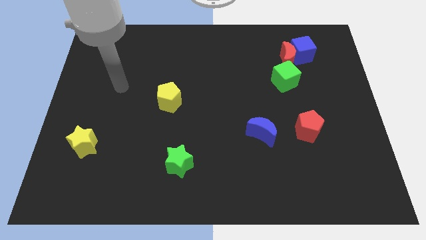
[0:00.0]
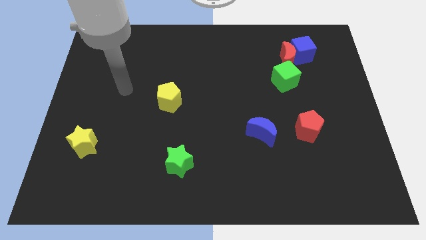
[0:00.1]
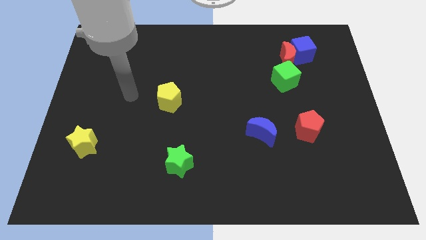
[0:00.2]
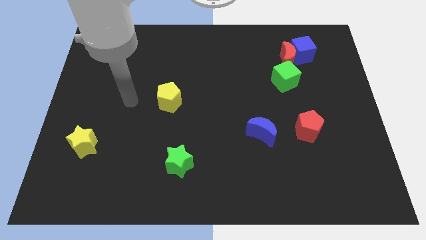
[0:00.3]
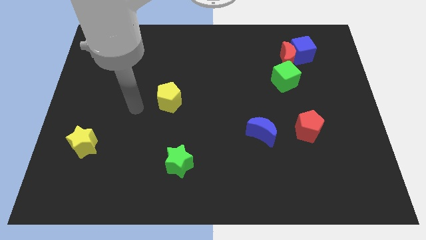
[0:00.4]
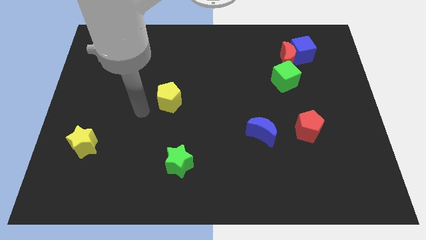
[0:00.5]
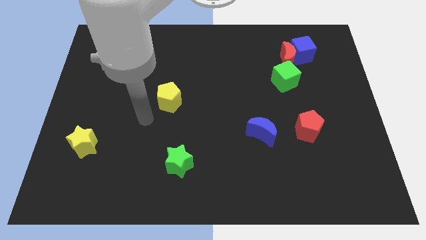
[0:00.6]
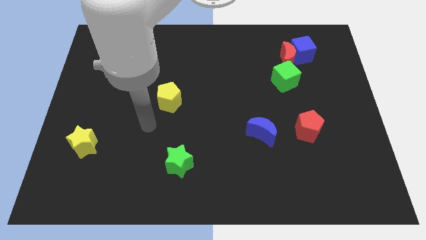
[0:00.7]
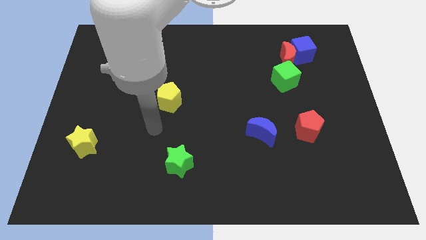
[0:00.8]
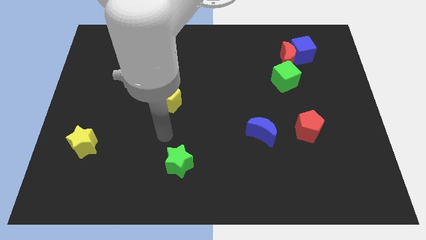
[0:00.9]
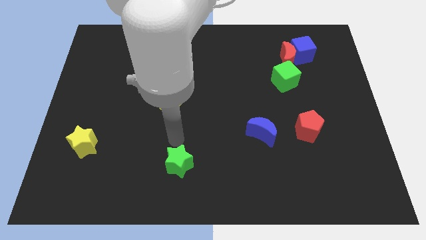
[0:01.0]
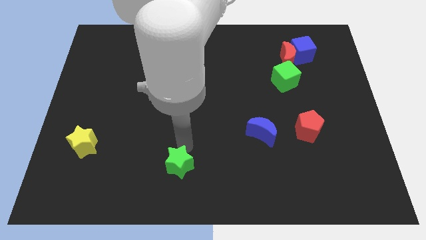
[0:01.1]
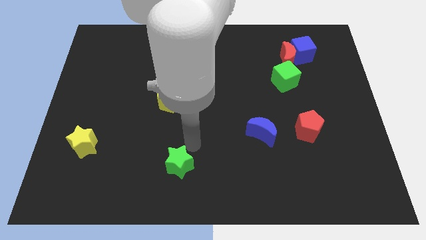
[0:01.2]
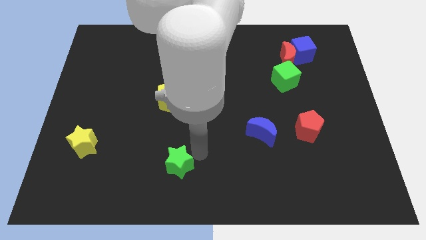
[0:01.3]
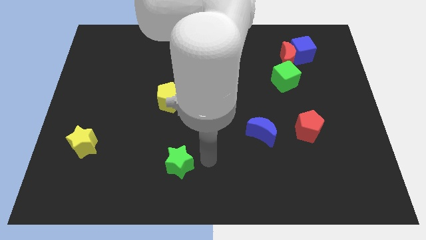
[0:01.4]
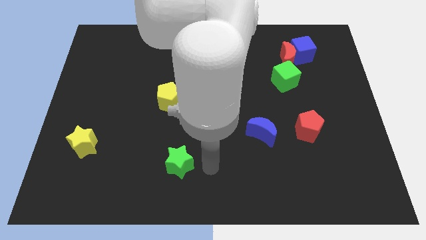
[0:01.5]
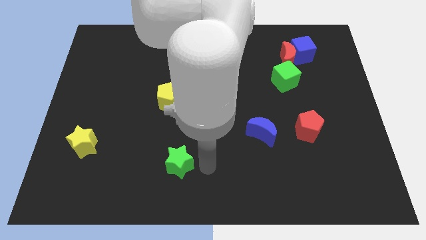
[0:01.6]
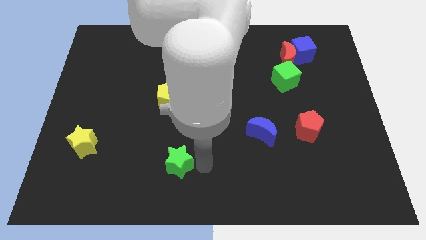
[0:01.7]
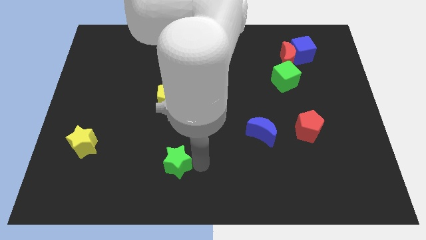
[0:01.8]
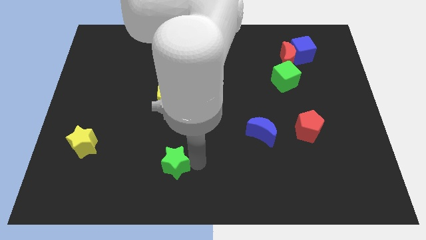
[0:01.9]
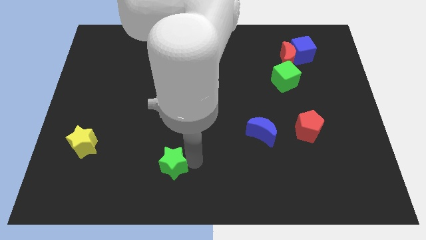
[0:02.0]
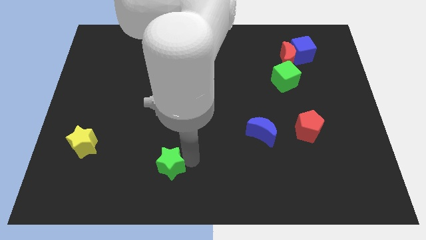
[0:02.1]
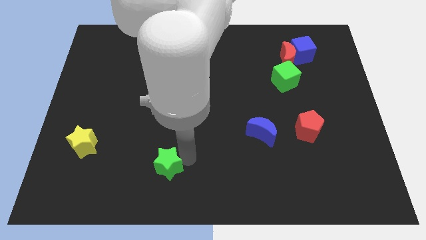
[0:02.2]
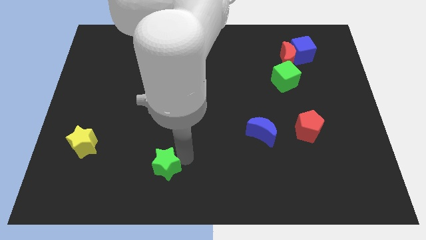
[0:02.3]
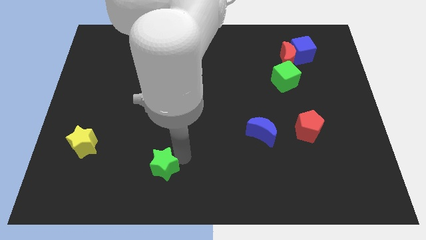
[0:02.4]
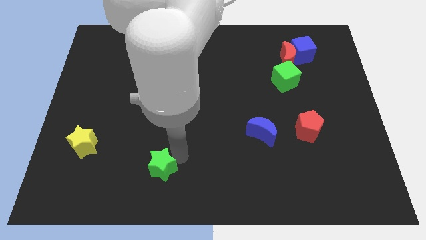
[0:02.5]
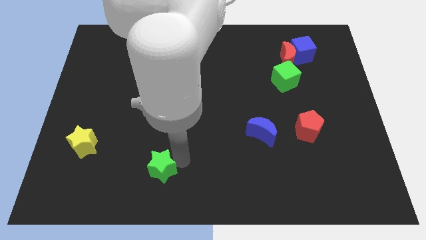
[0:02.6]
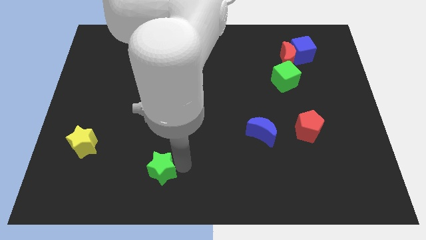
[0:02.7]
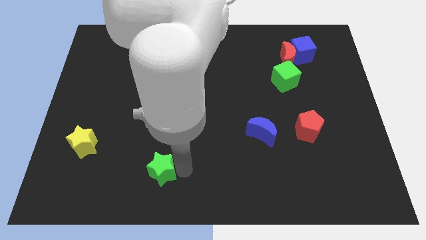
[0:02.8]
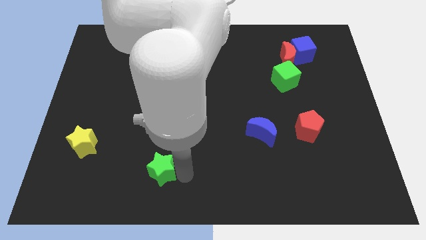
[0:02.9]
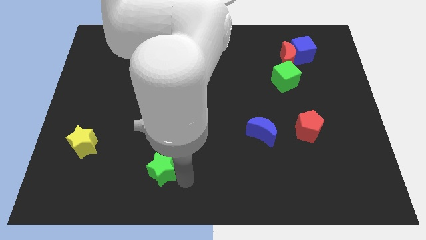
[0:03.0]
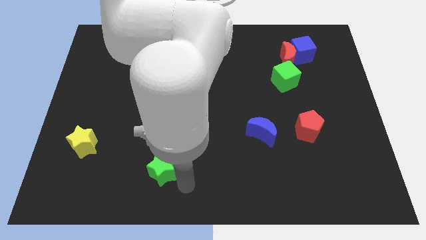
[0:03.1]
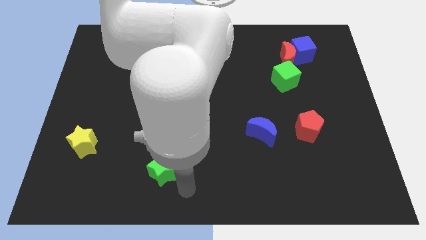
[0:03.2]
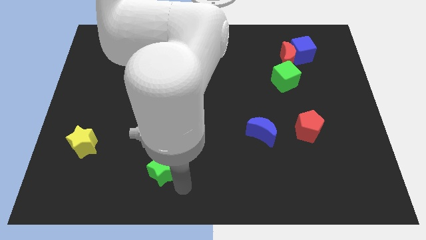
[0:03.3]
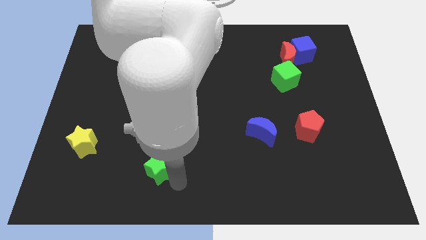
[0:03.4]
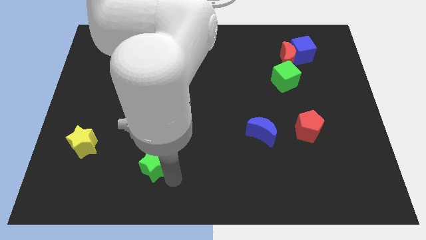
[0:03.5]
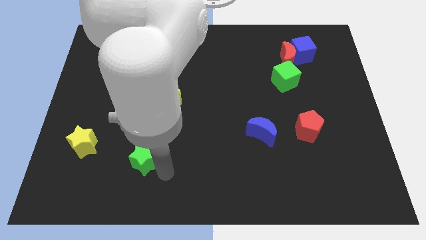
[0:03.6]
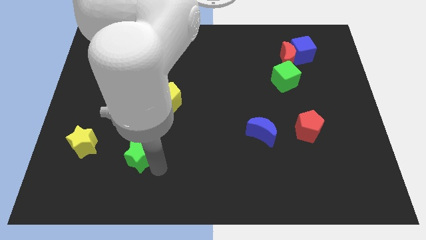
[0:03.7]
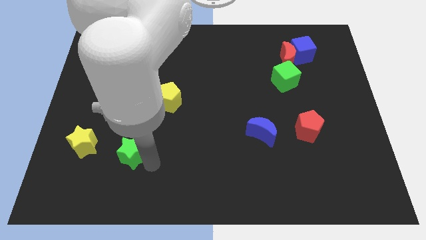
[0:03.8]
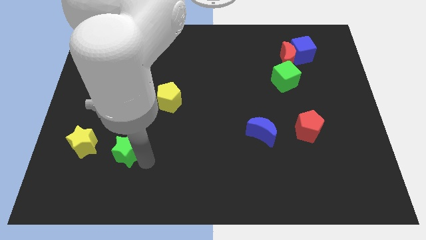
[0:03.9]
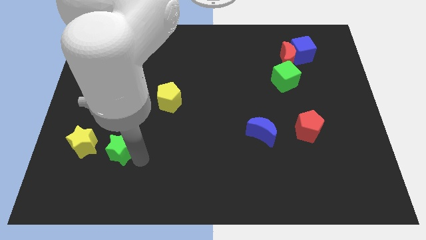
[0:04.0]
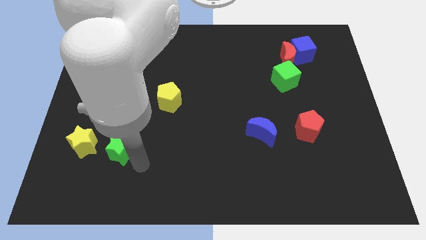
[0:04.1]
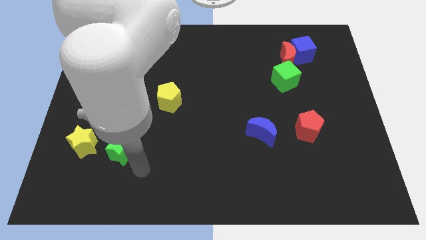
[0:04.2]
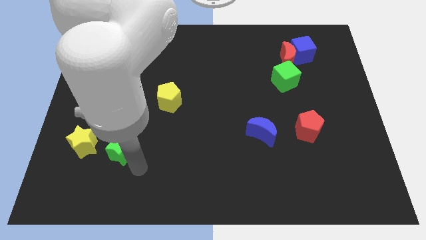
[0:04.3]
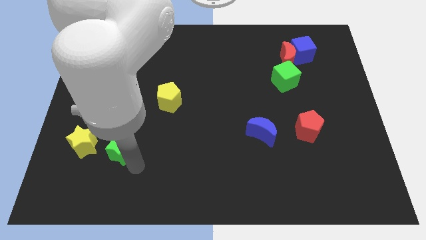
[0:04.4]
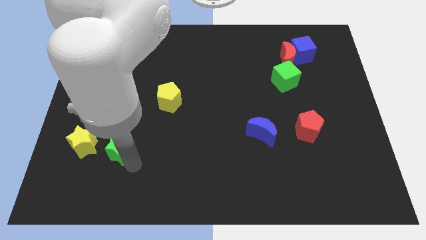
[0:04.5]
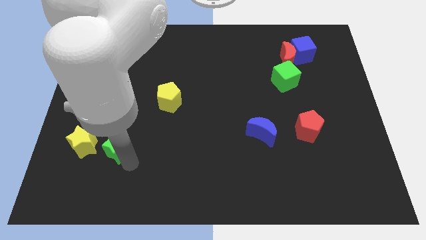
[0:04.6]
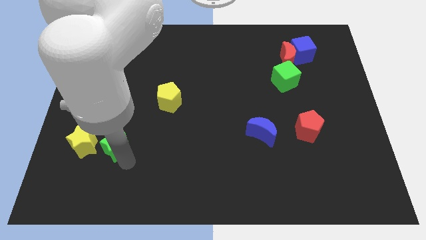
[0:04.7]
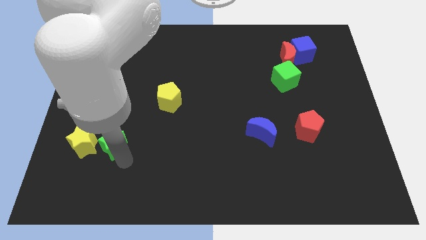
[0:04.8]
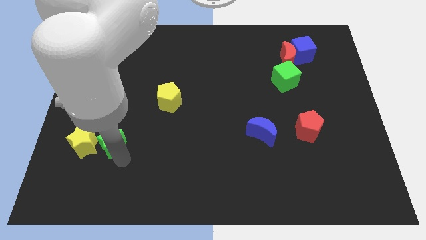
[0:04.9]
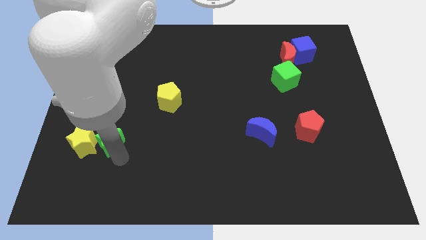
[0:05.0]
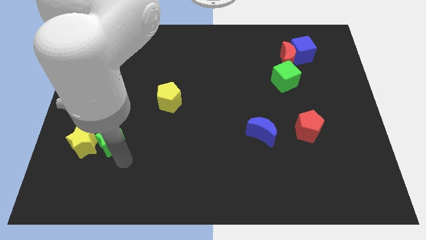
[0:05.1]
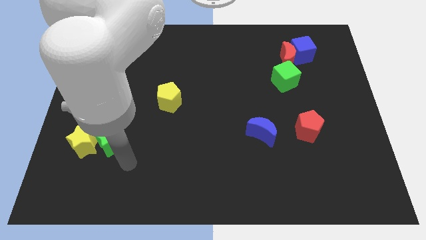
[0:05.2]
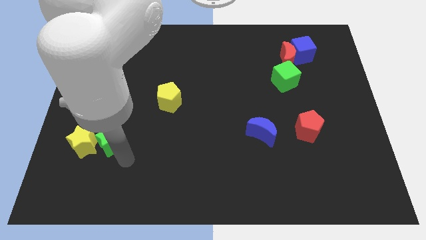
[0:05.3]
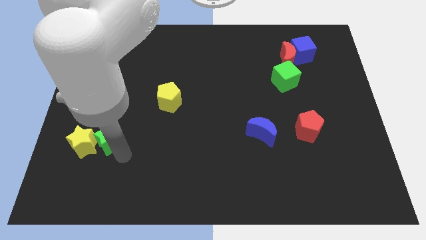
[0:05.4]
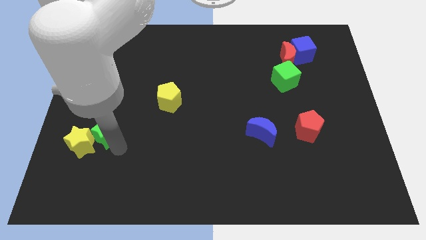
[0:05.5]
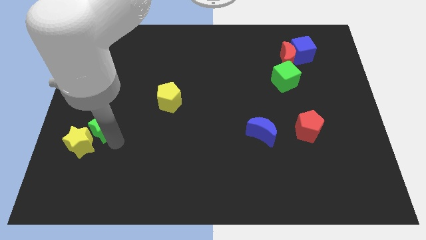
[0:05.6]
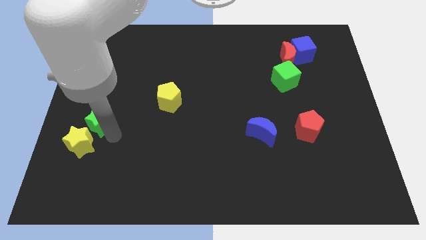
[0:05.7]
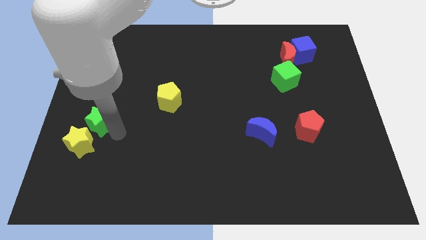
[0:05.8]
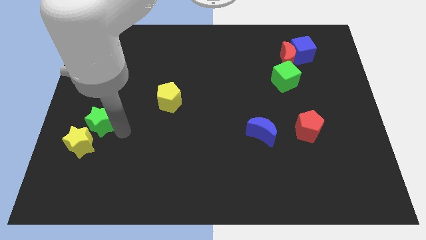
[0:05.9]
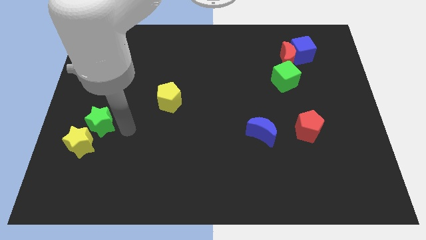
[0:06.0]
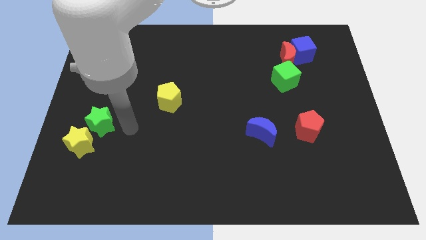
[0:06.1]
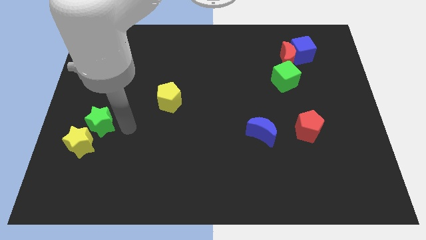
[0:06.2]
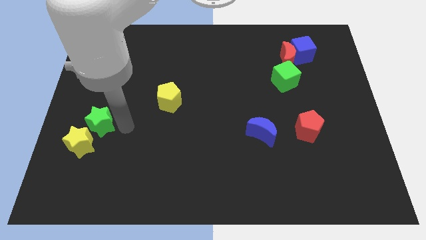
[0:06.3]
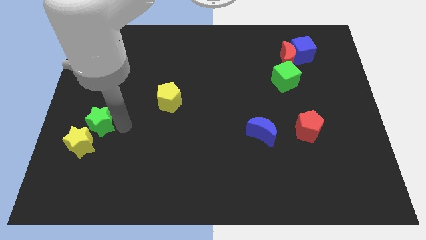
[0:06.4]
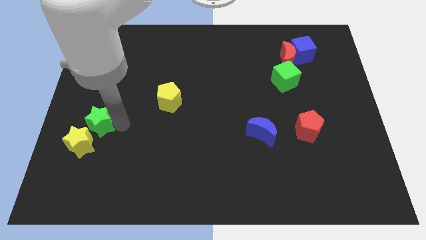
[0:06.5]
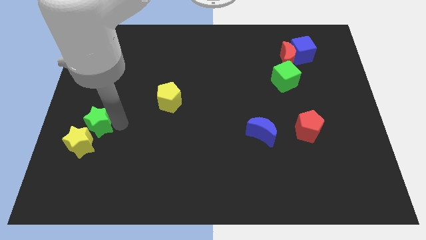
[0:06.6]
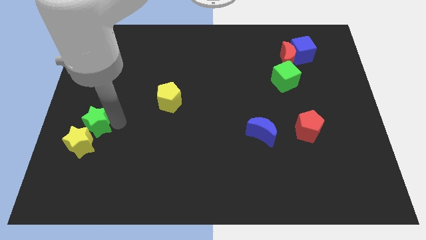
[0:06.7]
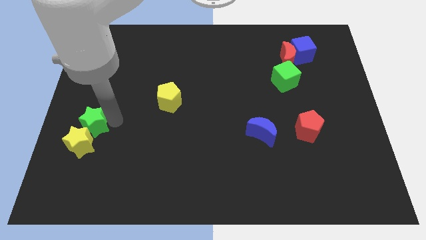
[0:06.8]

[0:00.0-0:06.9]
move the green star to the left side
